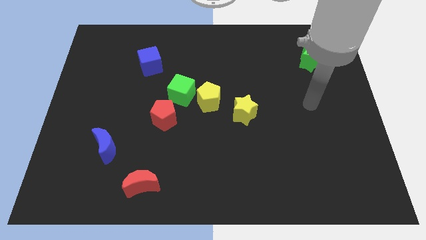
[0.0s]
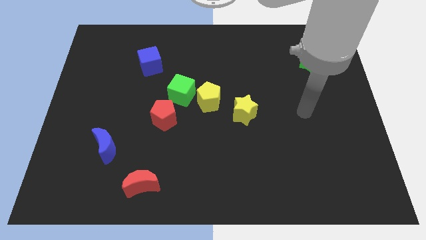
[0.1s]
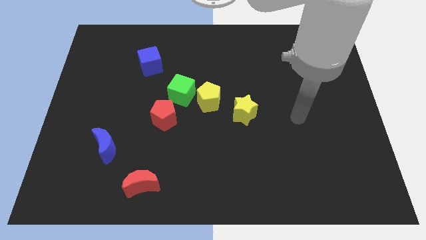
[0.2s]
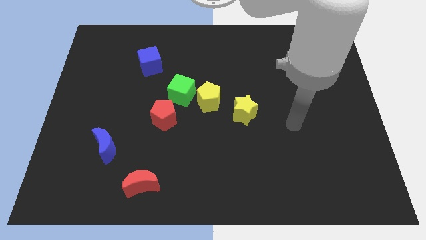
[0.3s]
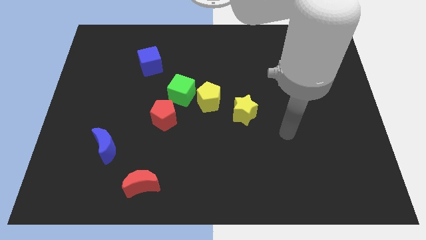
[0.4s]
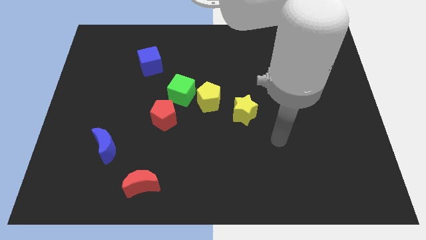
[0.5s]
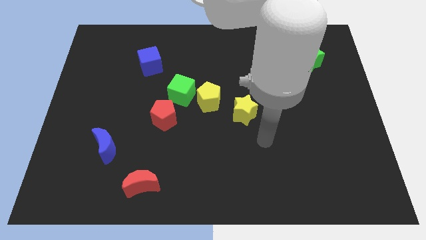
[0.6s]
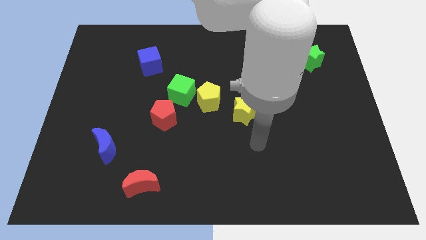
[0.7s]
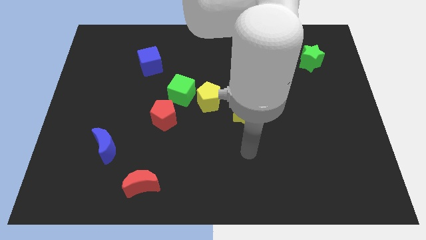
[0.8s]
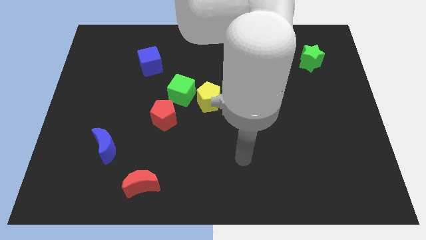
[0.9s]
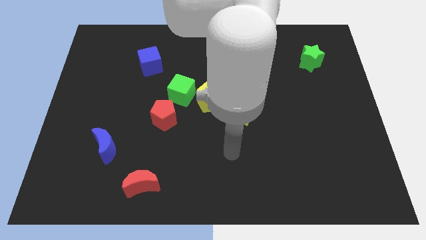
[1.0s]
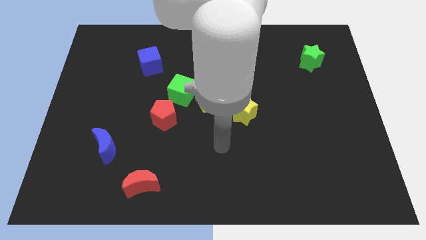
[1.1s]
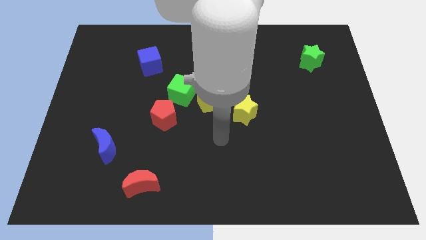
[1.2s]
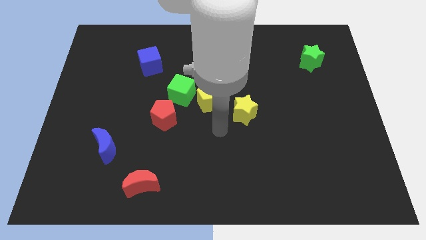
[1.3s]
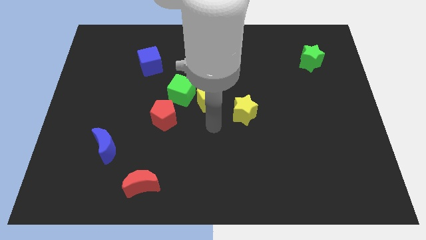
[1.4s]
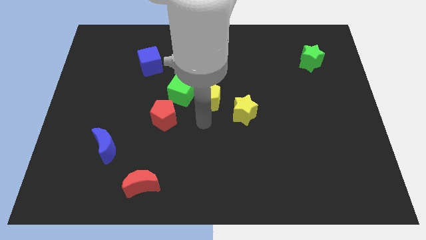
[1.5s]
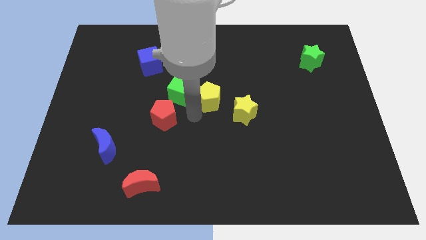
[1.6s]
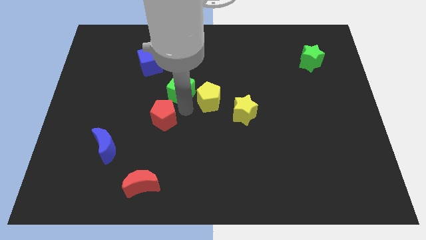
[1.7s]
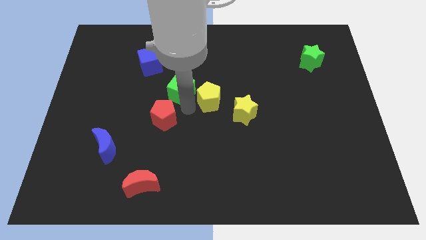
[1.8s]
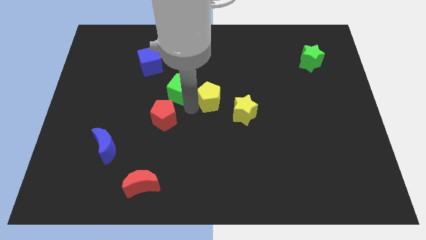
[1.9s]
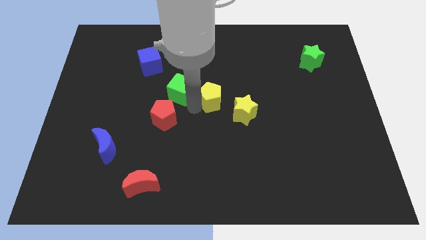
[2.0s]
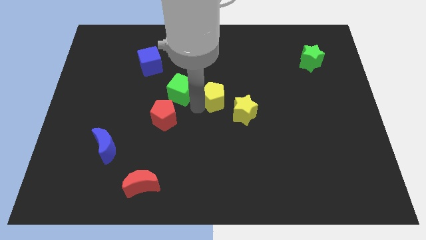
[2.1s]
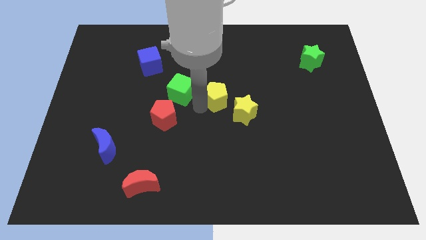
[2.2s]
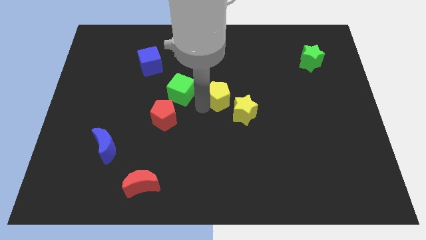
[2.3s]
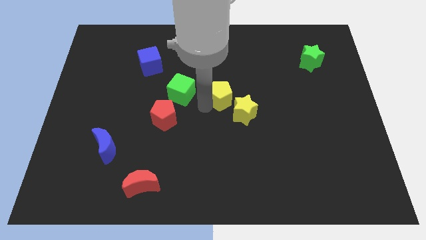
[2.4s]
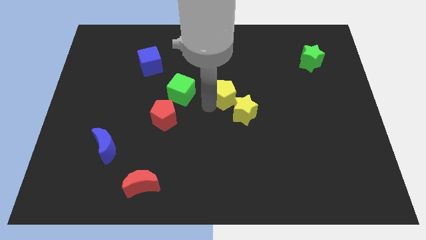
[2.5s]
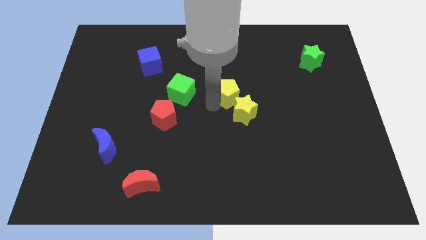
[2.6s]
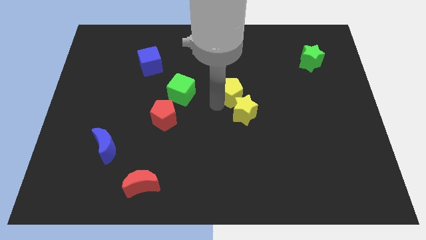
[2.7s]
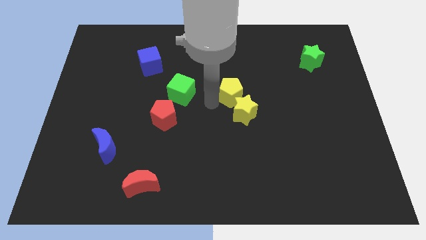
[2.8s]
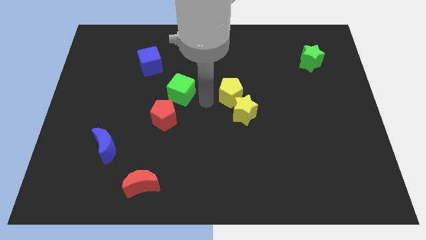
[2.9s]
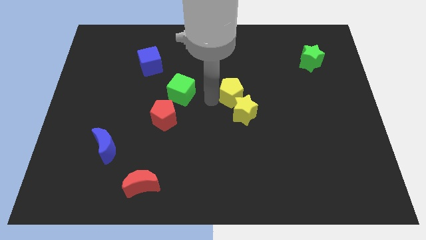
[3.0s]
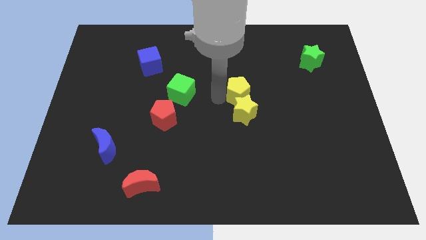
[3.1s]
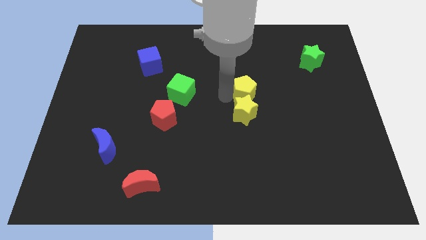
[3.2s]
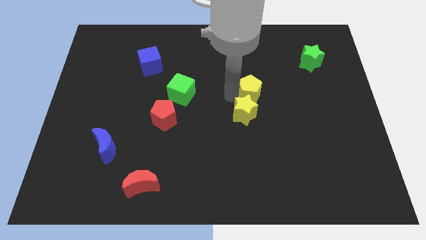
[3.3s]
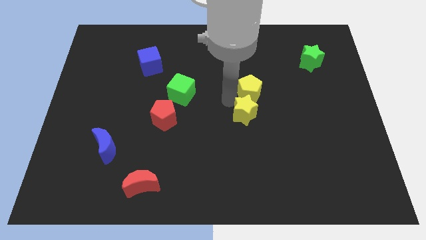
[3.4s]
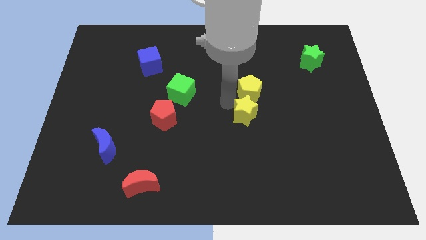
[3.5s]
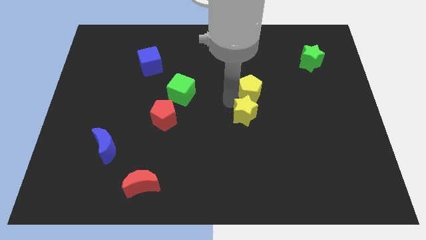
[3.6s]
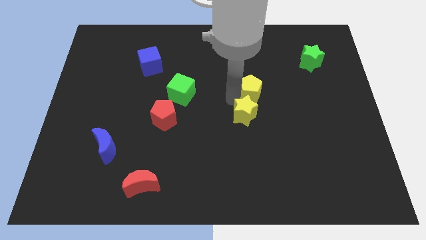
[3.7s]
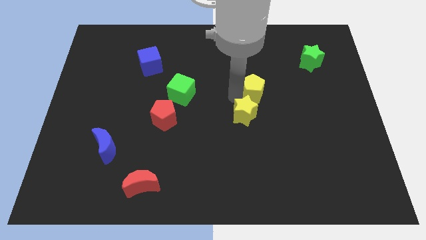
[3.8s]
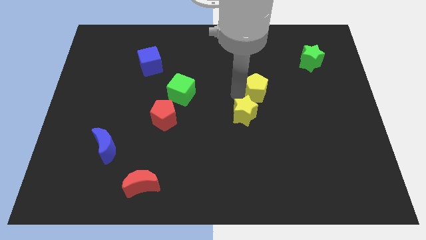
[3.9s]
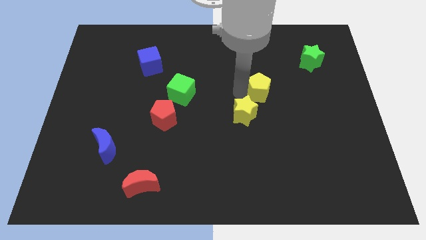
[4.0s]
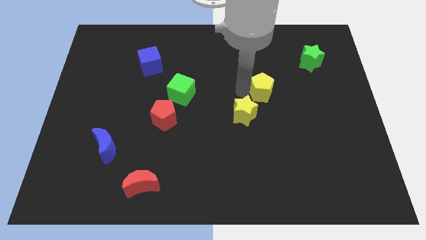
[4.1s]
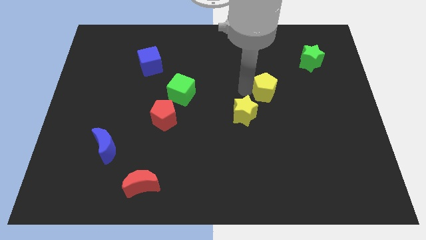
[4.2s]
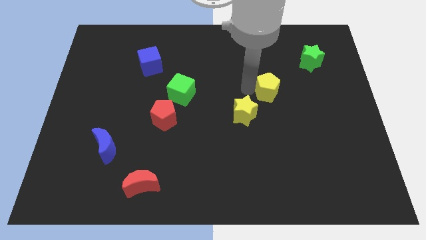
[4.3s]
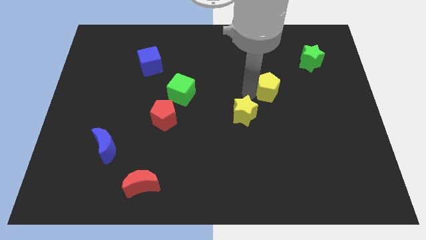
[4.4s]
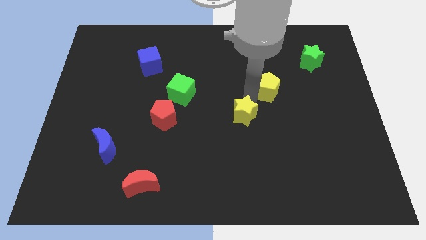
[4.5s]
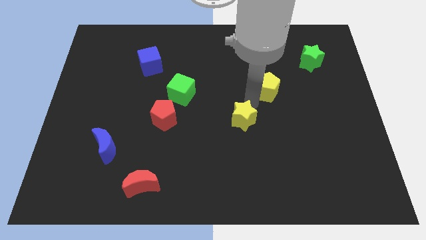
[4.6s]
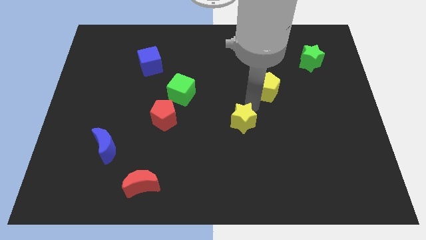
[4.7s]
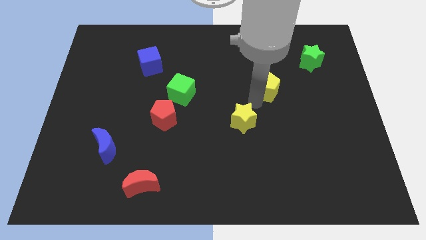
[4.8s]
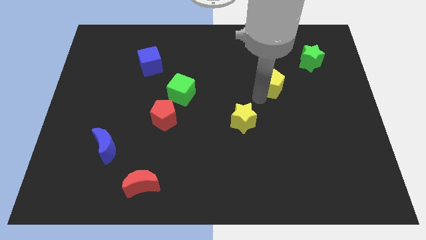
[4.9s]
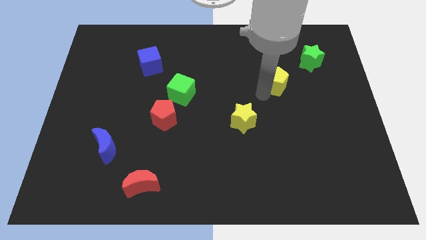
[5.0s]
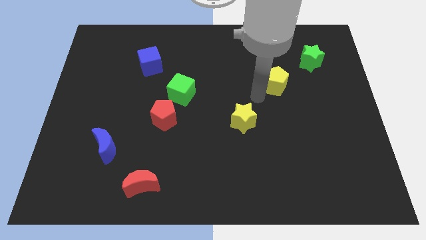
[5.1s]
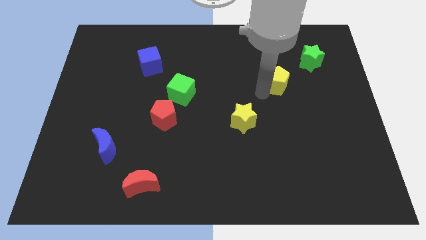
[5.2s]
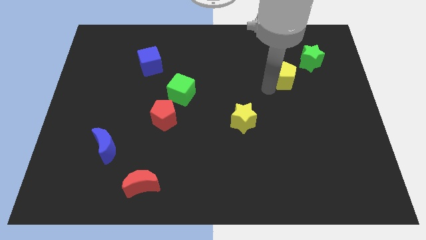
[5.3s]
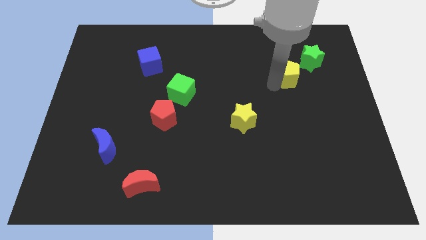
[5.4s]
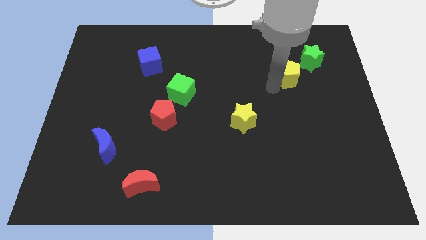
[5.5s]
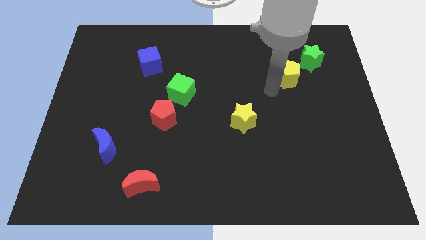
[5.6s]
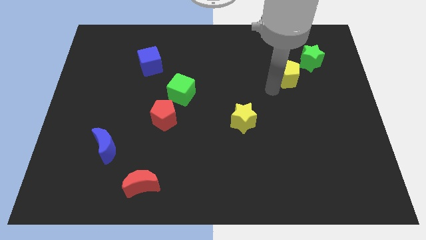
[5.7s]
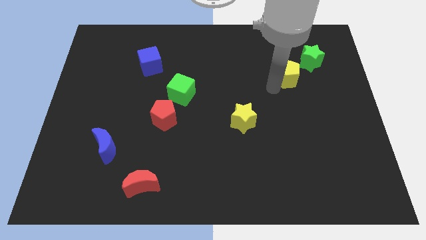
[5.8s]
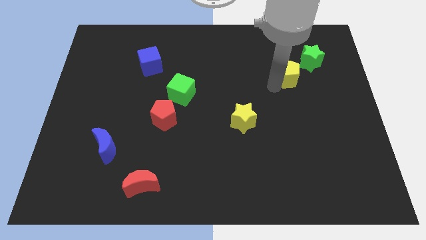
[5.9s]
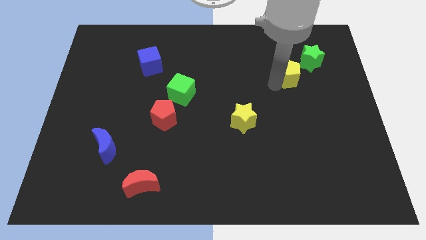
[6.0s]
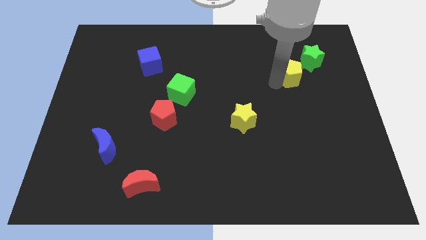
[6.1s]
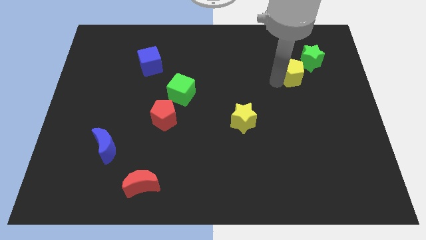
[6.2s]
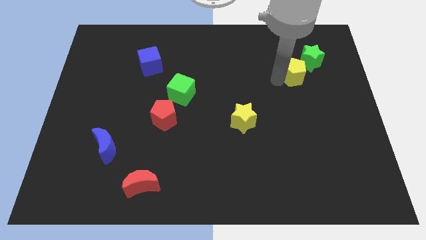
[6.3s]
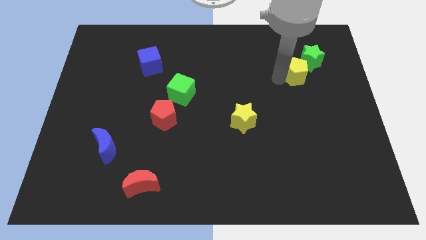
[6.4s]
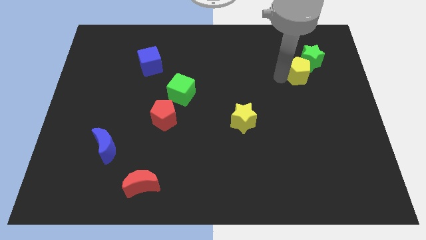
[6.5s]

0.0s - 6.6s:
slide the yellow pentagon next to the green star
